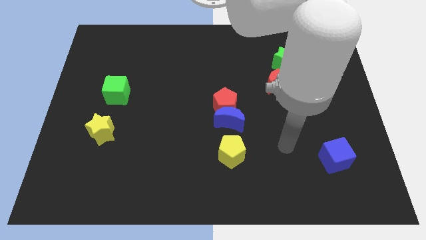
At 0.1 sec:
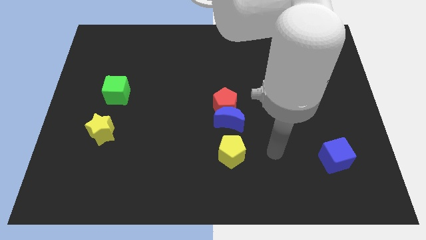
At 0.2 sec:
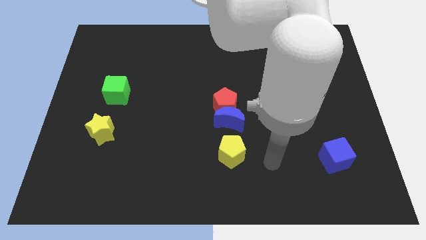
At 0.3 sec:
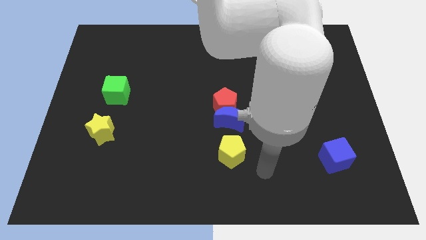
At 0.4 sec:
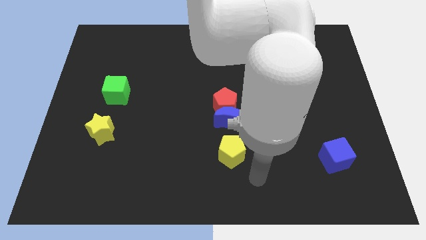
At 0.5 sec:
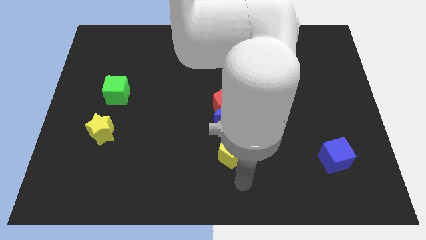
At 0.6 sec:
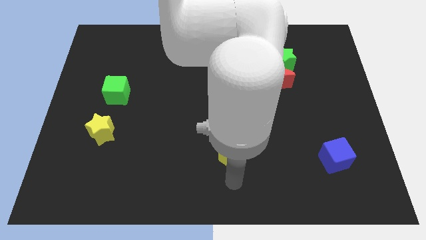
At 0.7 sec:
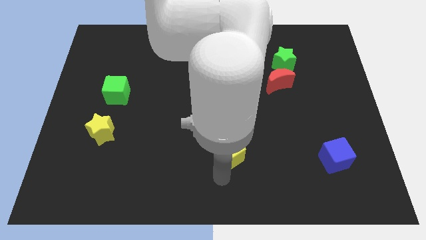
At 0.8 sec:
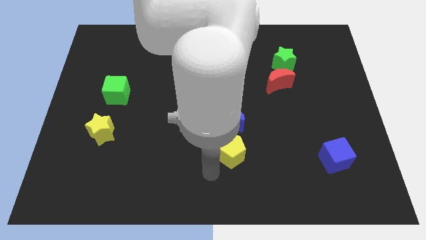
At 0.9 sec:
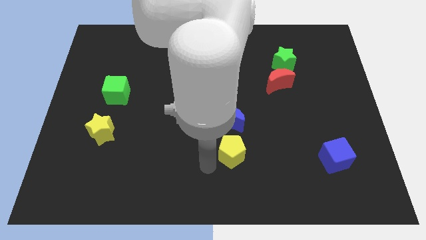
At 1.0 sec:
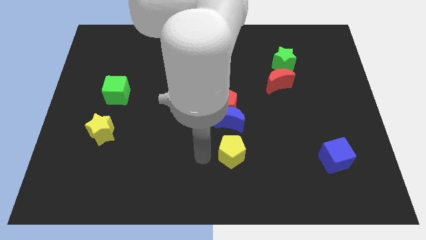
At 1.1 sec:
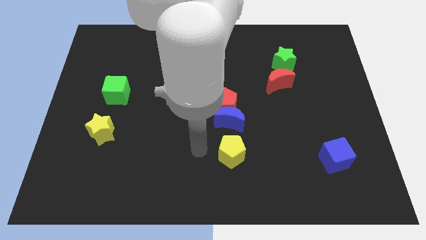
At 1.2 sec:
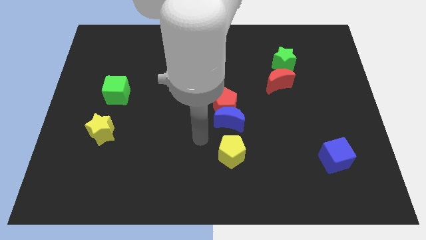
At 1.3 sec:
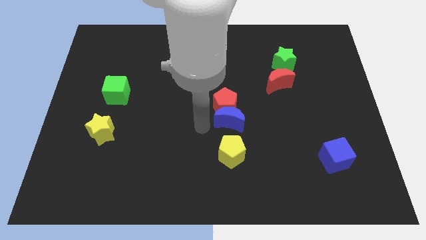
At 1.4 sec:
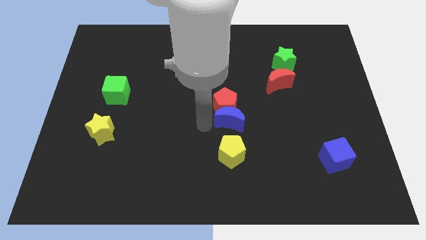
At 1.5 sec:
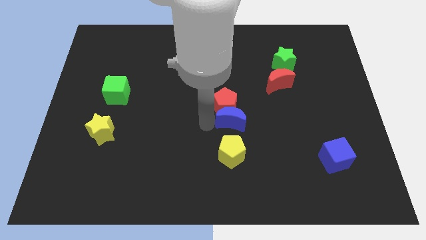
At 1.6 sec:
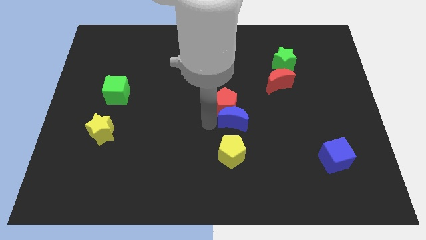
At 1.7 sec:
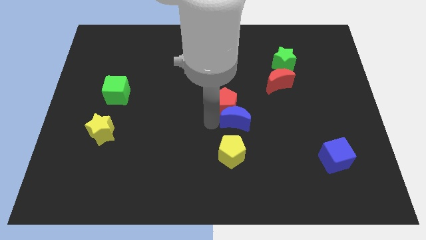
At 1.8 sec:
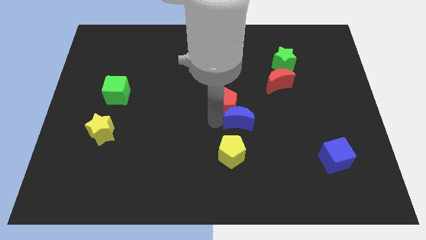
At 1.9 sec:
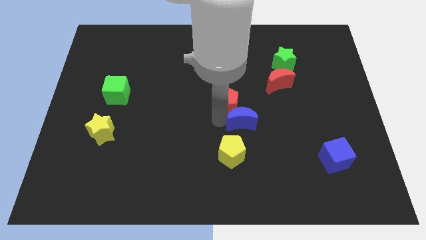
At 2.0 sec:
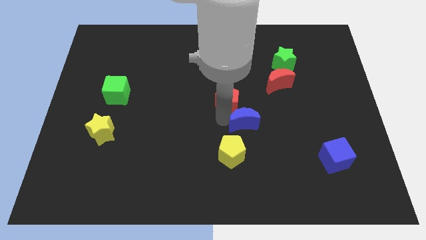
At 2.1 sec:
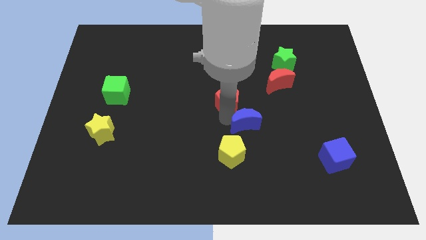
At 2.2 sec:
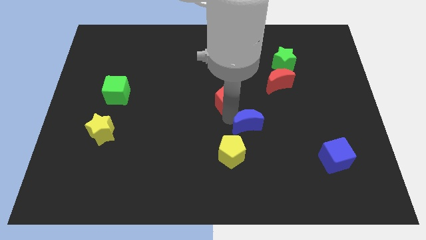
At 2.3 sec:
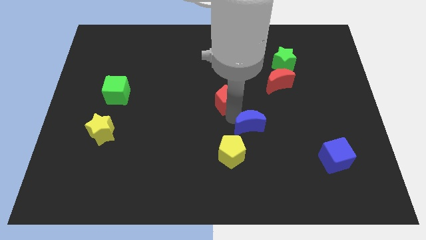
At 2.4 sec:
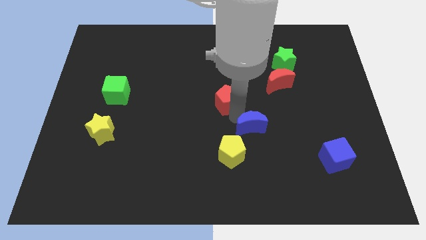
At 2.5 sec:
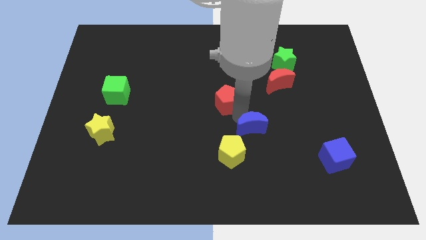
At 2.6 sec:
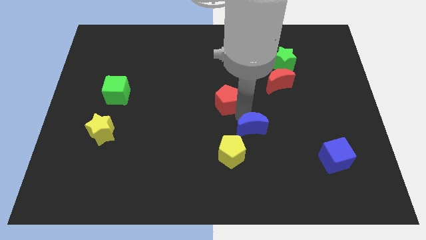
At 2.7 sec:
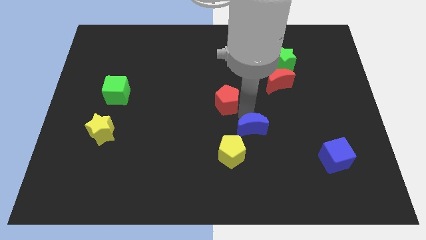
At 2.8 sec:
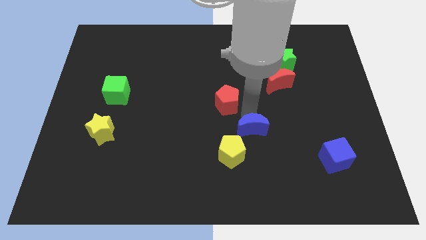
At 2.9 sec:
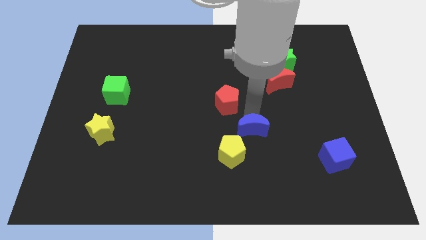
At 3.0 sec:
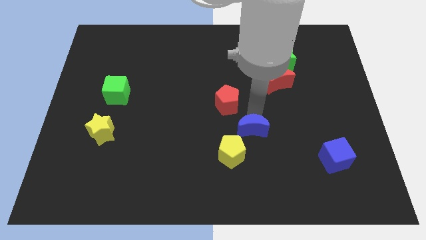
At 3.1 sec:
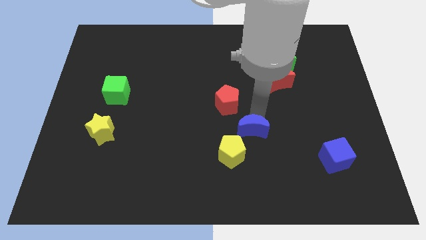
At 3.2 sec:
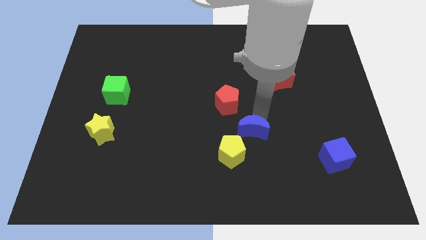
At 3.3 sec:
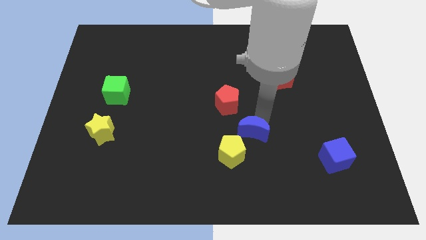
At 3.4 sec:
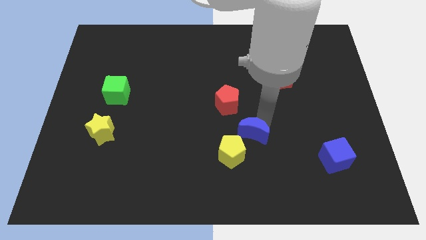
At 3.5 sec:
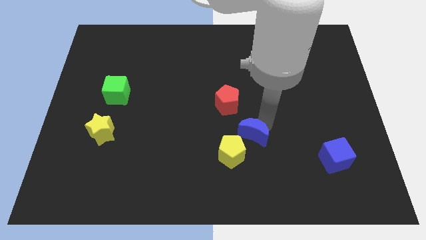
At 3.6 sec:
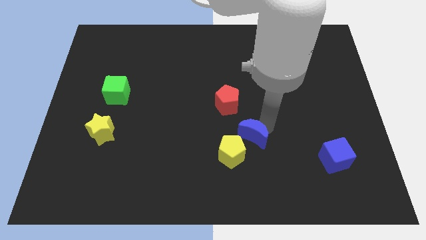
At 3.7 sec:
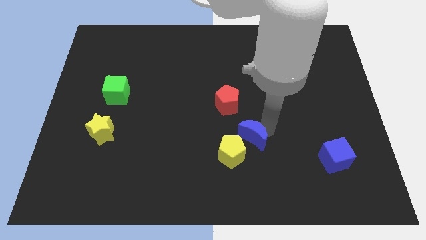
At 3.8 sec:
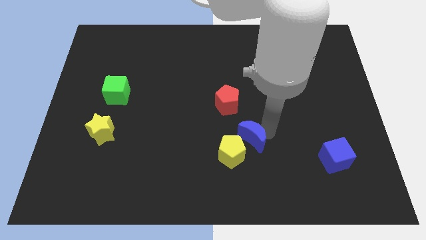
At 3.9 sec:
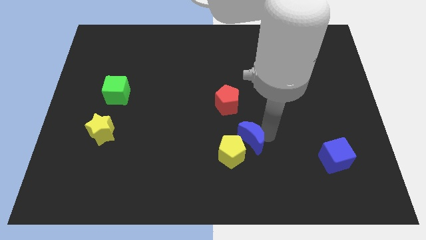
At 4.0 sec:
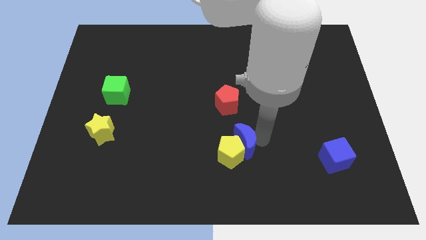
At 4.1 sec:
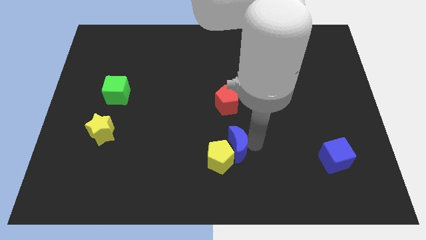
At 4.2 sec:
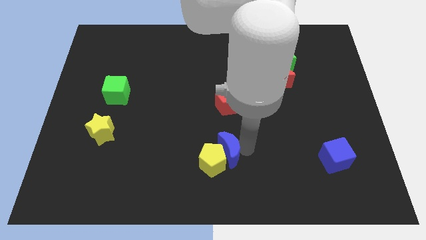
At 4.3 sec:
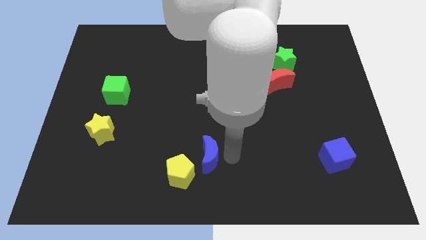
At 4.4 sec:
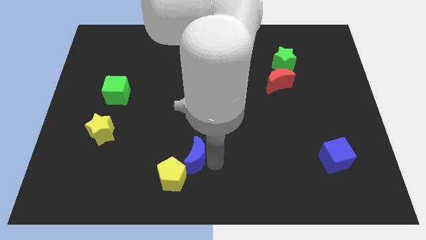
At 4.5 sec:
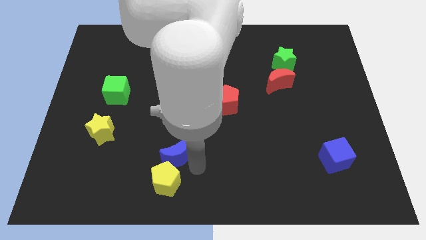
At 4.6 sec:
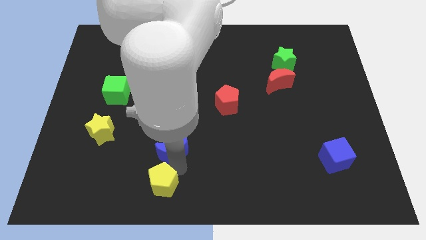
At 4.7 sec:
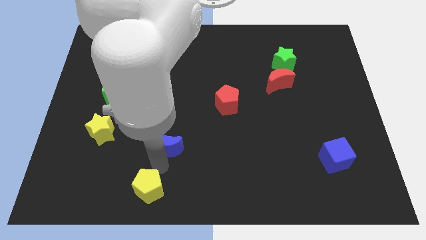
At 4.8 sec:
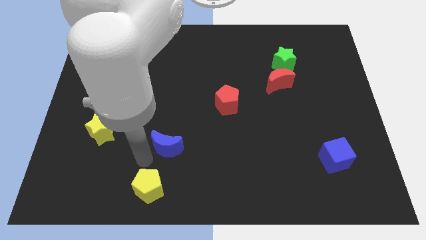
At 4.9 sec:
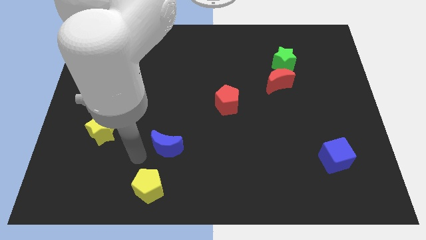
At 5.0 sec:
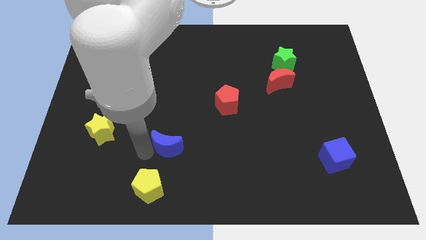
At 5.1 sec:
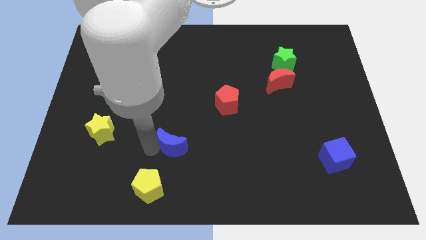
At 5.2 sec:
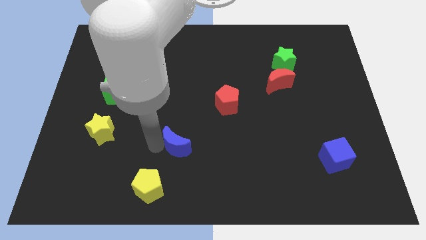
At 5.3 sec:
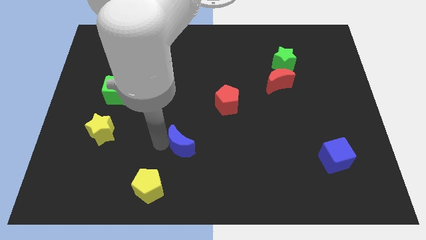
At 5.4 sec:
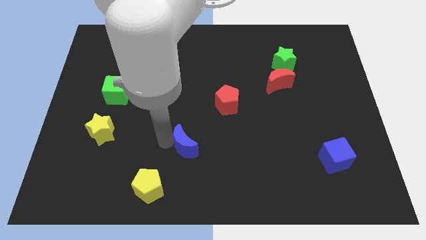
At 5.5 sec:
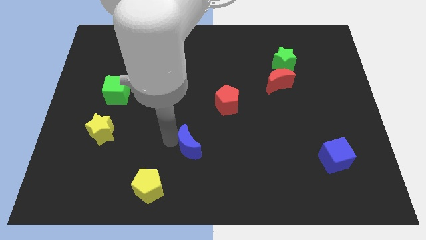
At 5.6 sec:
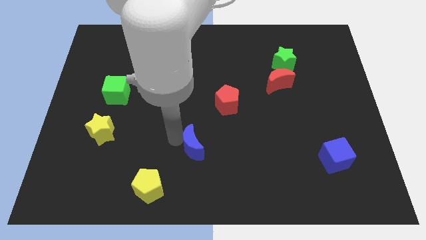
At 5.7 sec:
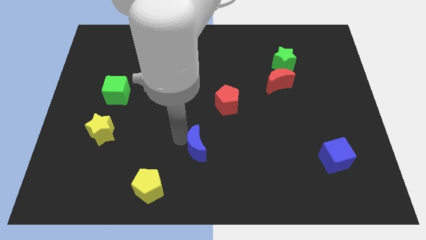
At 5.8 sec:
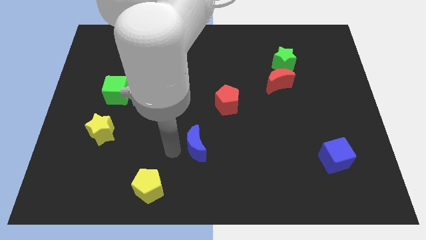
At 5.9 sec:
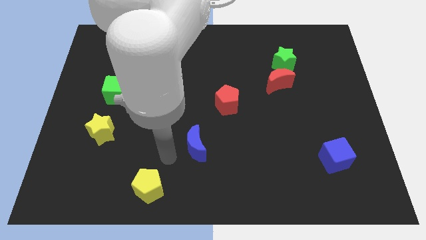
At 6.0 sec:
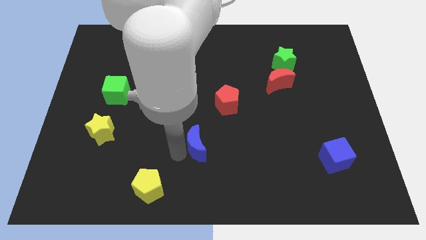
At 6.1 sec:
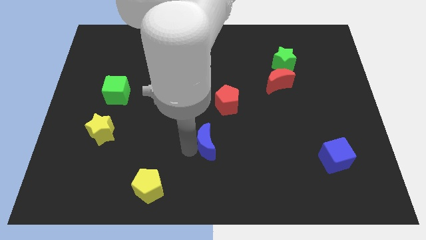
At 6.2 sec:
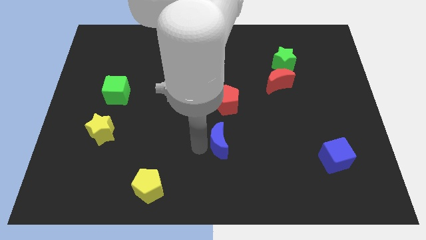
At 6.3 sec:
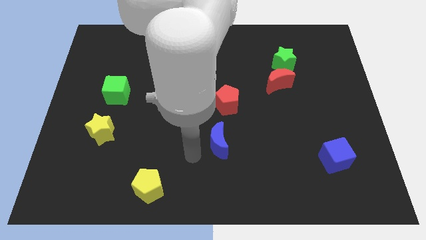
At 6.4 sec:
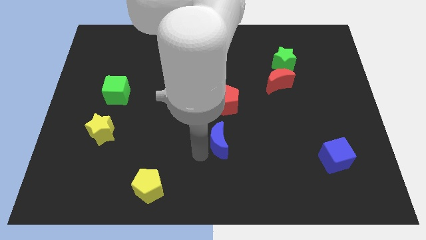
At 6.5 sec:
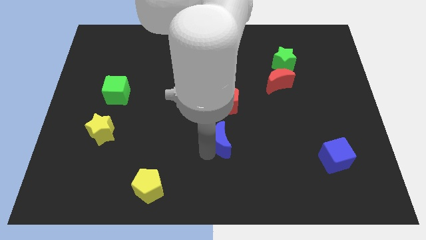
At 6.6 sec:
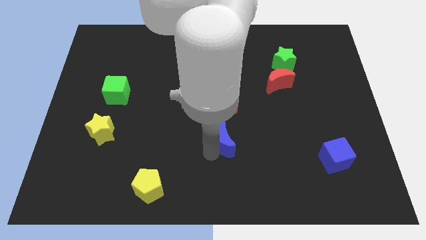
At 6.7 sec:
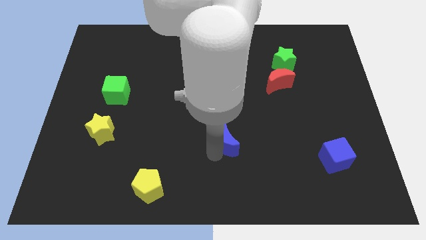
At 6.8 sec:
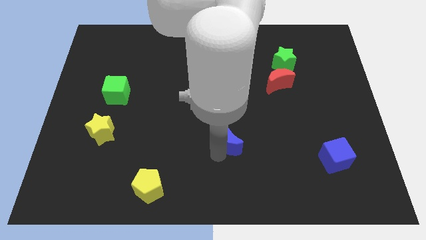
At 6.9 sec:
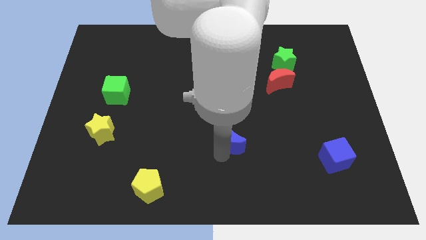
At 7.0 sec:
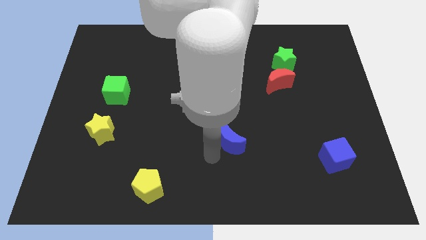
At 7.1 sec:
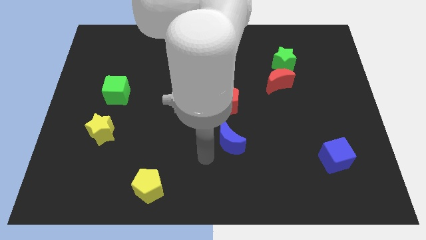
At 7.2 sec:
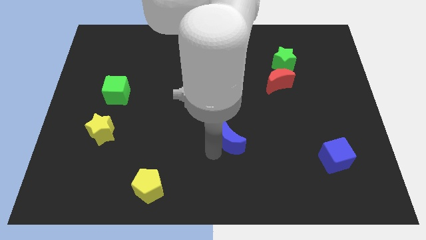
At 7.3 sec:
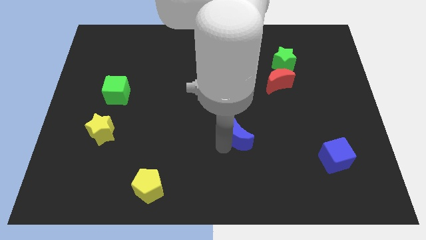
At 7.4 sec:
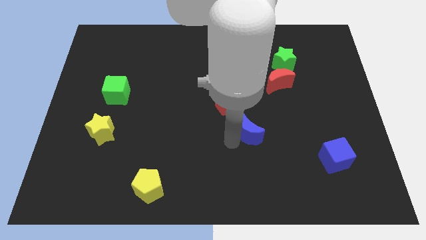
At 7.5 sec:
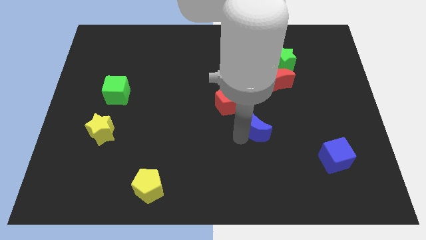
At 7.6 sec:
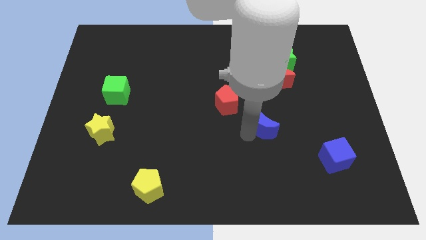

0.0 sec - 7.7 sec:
slightly slide the blue moon to the right

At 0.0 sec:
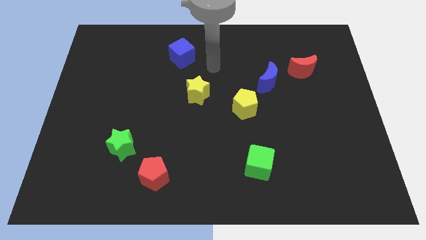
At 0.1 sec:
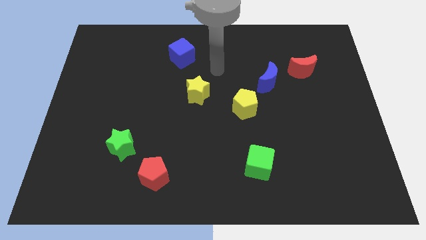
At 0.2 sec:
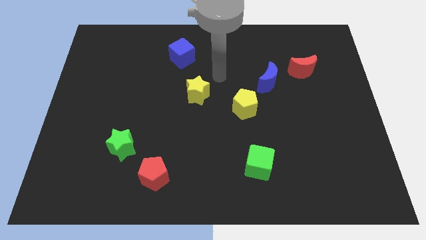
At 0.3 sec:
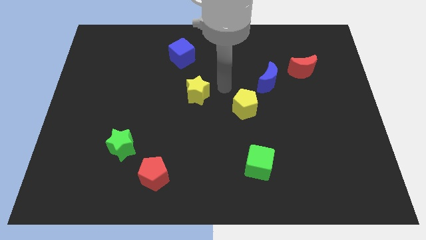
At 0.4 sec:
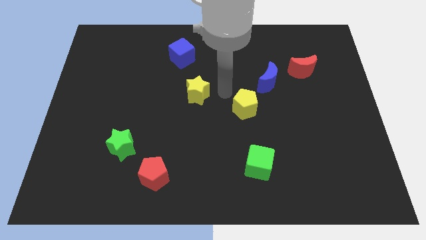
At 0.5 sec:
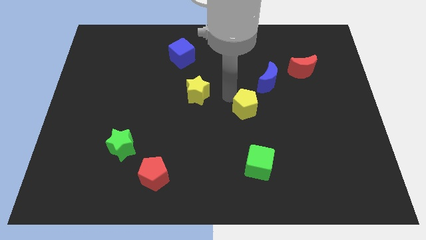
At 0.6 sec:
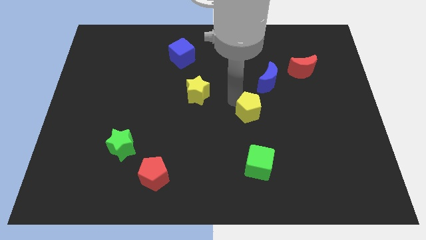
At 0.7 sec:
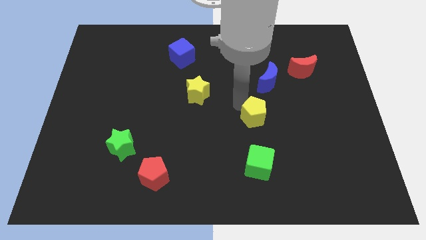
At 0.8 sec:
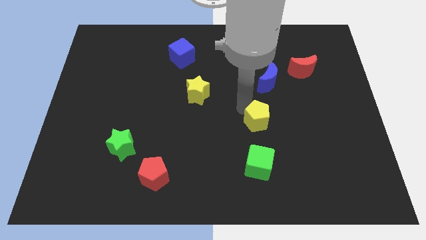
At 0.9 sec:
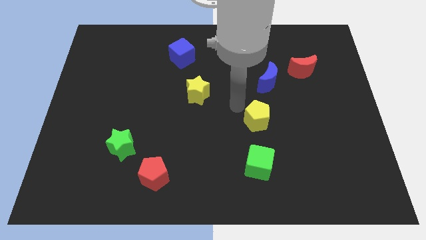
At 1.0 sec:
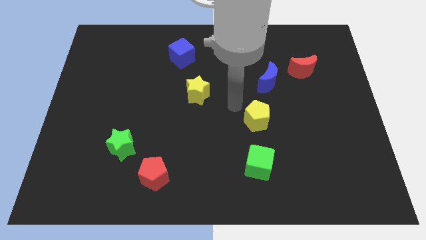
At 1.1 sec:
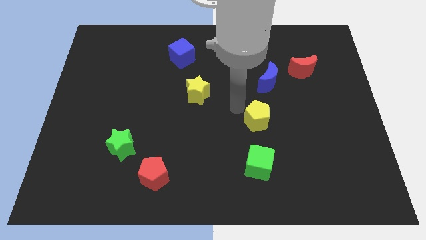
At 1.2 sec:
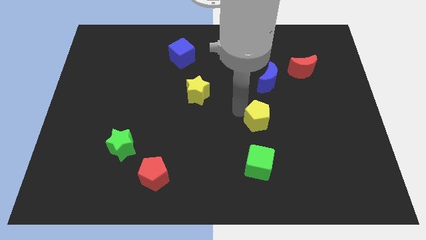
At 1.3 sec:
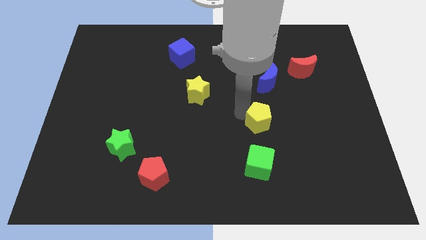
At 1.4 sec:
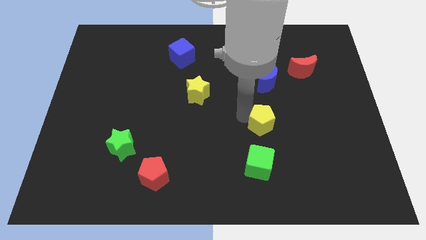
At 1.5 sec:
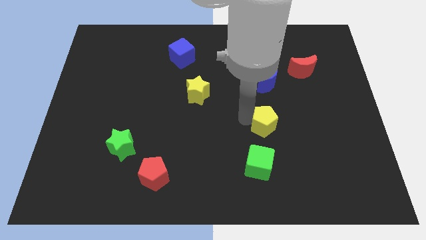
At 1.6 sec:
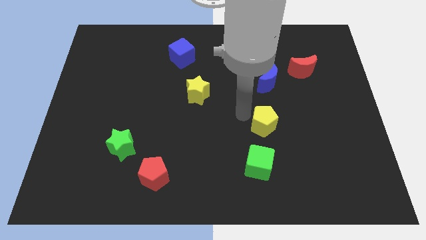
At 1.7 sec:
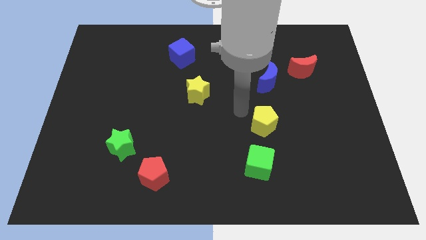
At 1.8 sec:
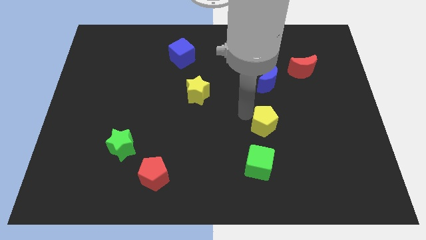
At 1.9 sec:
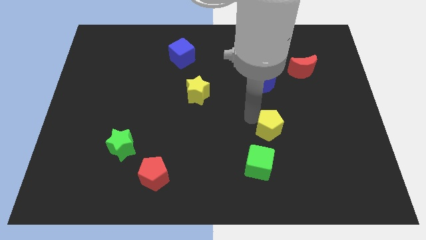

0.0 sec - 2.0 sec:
slightly slide the yellow pentagon downwards and then to the right
